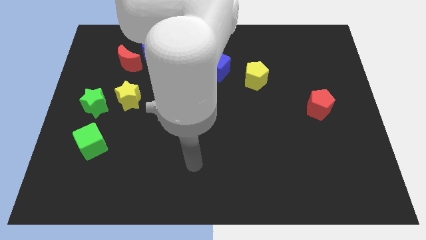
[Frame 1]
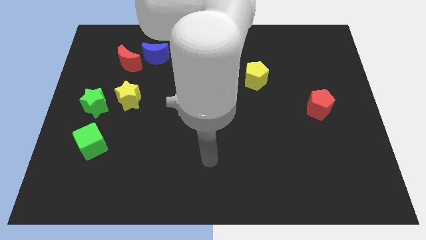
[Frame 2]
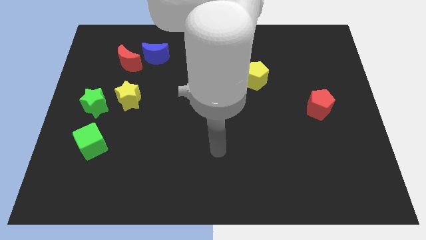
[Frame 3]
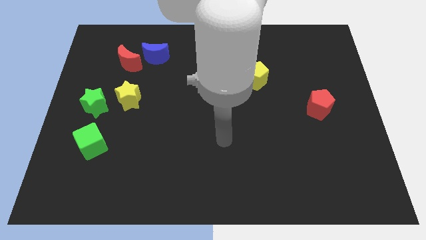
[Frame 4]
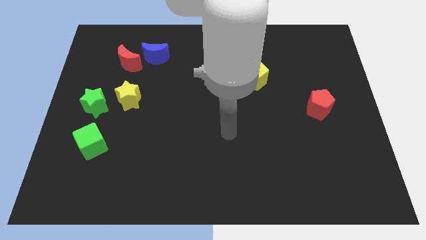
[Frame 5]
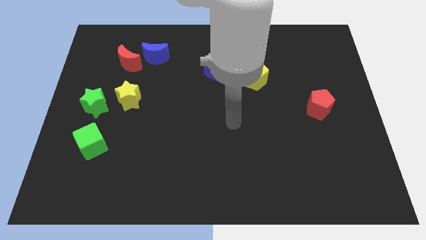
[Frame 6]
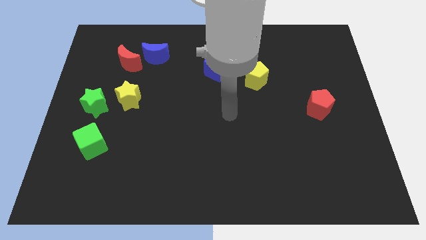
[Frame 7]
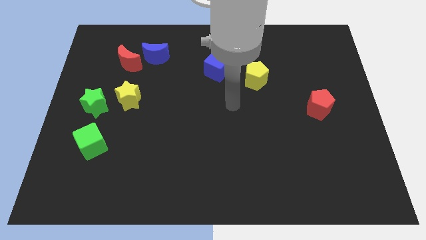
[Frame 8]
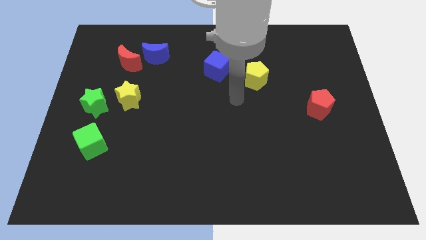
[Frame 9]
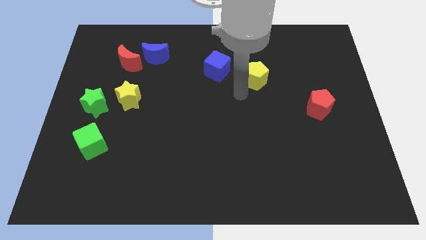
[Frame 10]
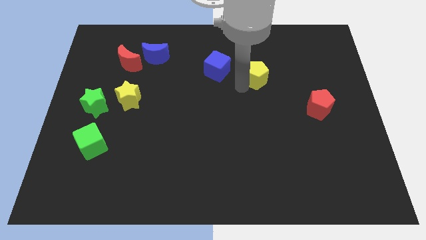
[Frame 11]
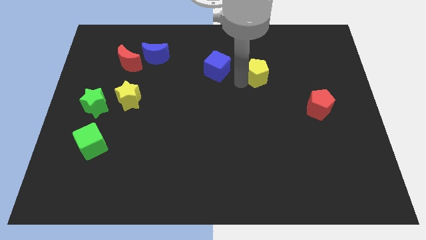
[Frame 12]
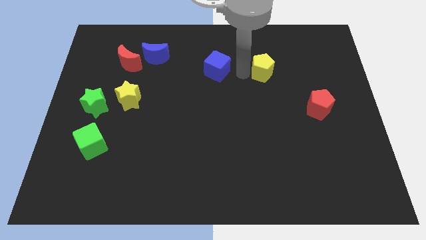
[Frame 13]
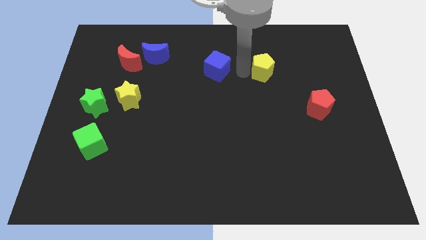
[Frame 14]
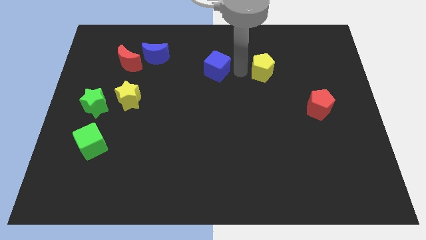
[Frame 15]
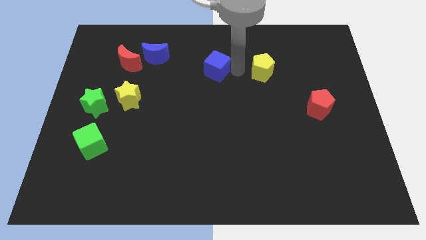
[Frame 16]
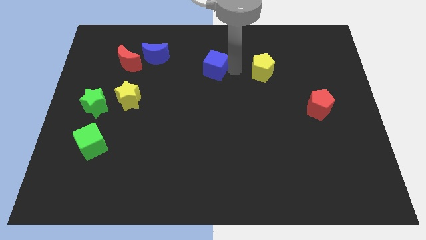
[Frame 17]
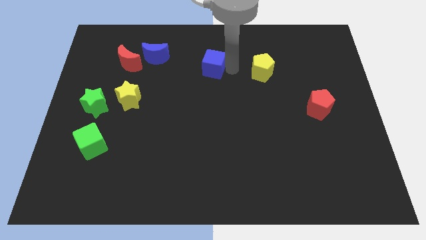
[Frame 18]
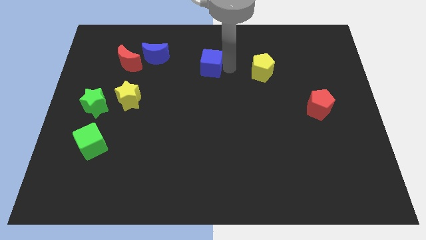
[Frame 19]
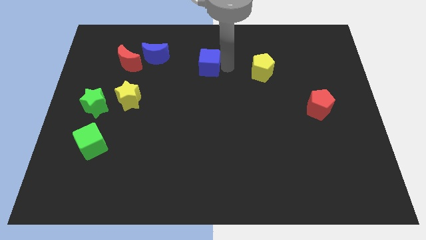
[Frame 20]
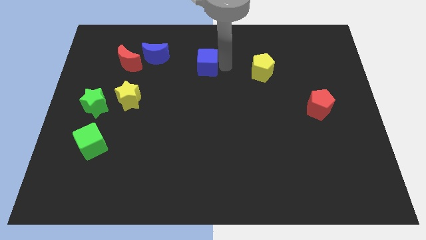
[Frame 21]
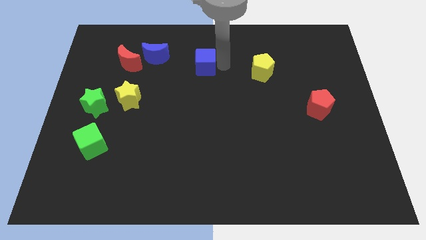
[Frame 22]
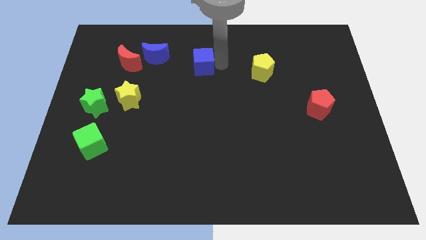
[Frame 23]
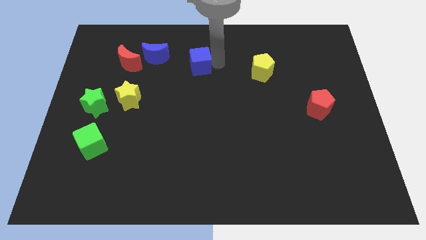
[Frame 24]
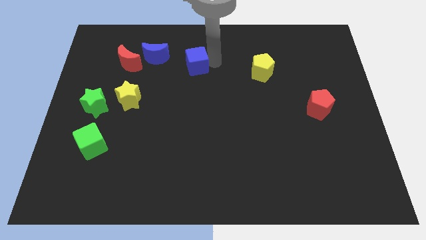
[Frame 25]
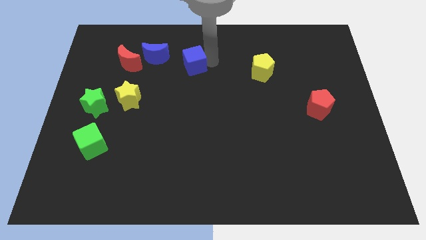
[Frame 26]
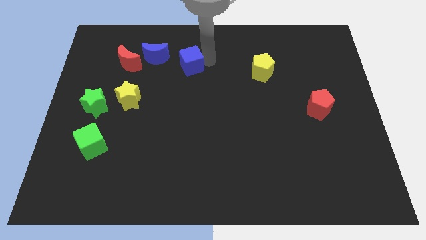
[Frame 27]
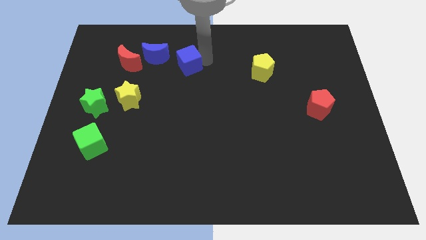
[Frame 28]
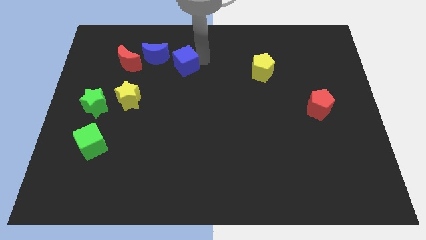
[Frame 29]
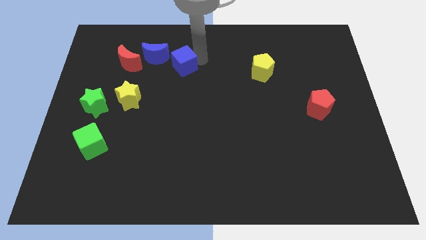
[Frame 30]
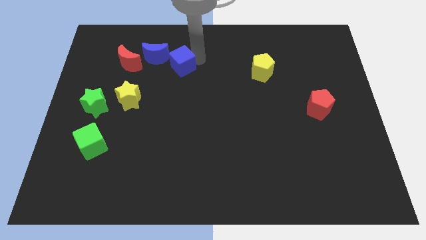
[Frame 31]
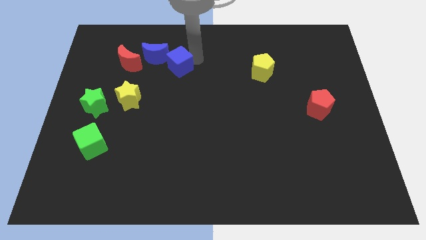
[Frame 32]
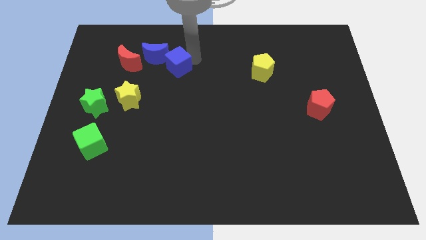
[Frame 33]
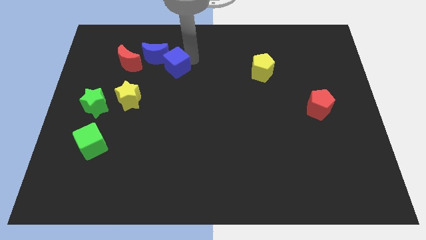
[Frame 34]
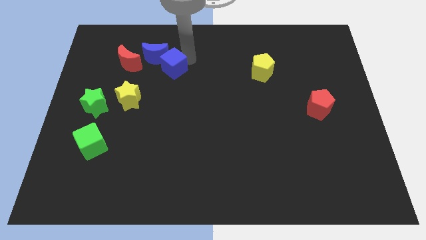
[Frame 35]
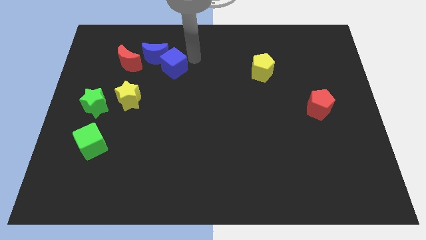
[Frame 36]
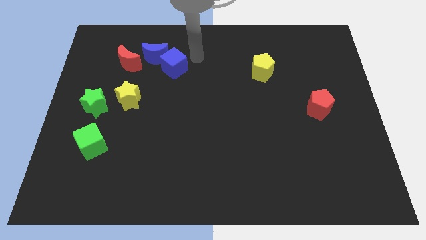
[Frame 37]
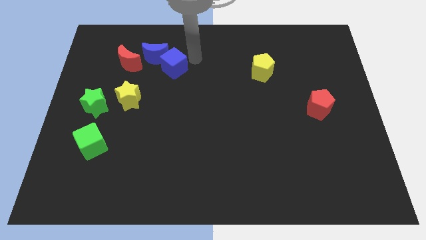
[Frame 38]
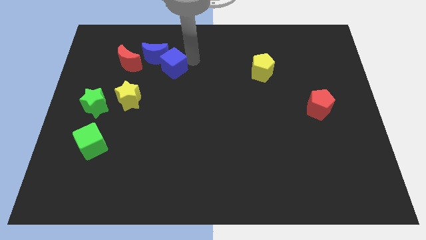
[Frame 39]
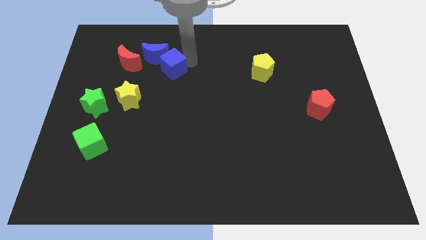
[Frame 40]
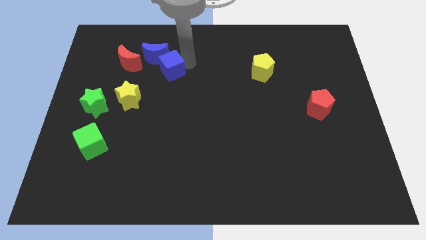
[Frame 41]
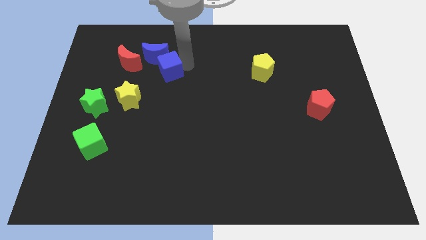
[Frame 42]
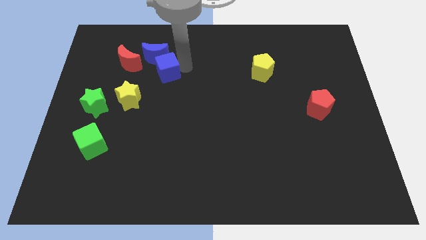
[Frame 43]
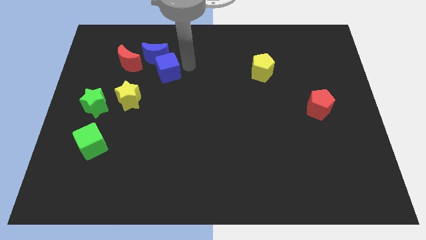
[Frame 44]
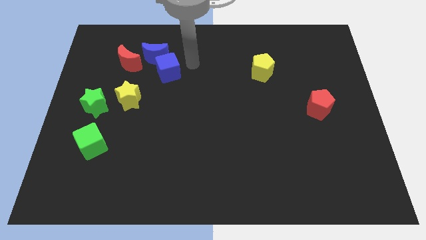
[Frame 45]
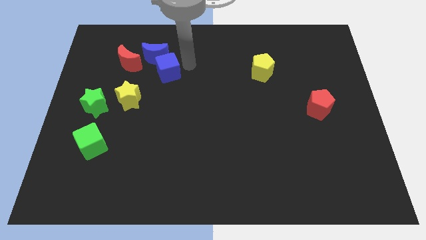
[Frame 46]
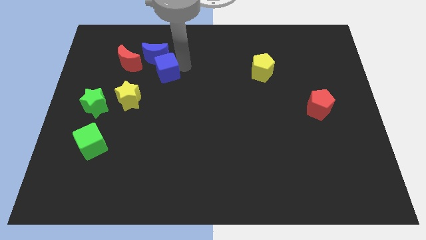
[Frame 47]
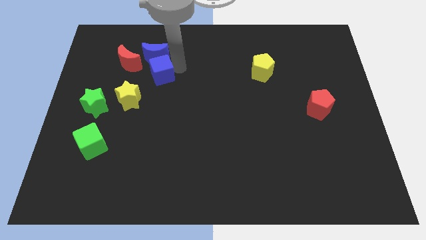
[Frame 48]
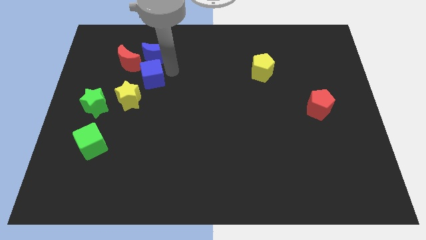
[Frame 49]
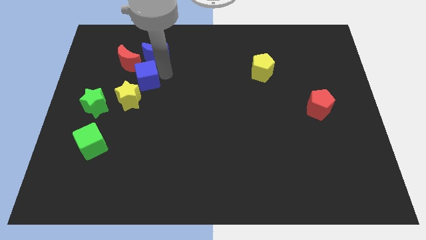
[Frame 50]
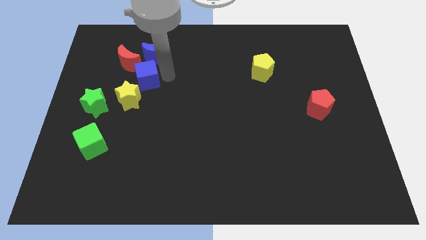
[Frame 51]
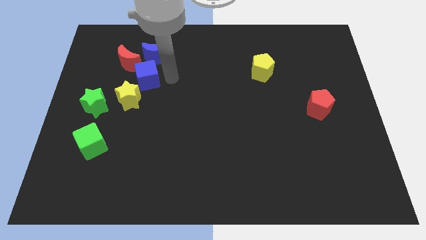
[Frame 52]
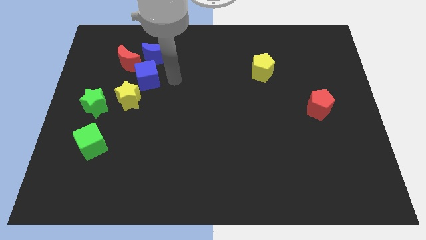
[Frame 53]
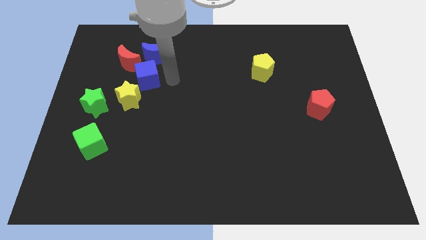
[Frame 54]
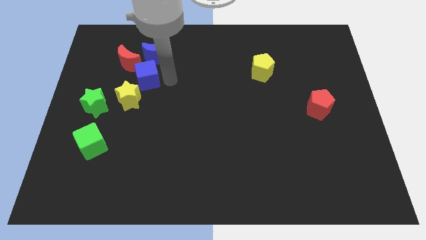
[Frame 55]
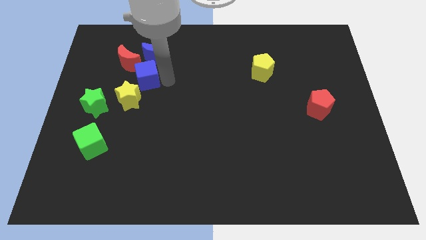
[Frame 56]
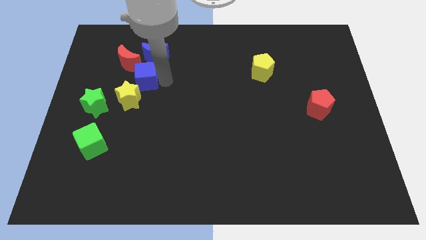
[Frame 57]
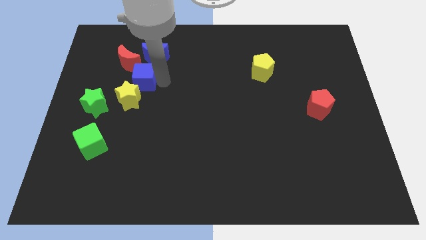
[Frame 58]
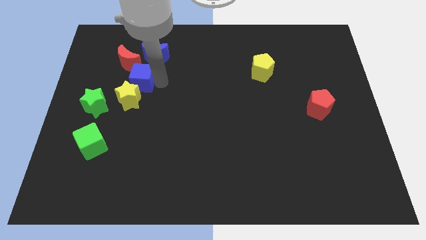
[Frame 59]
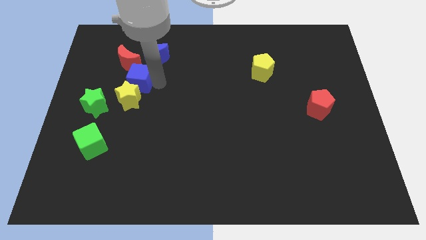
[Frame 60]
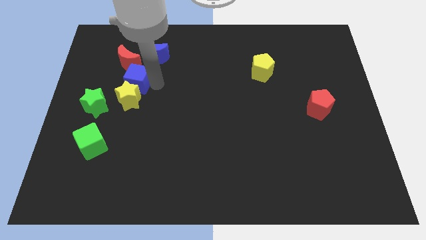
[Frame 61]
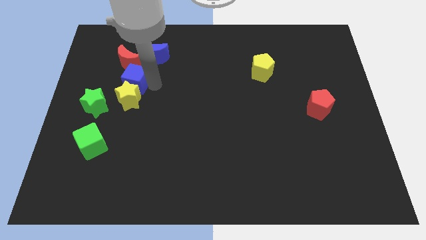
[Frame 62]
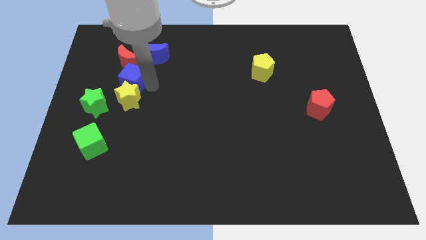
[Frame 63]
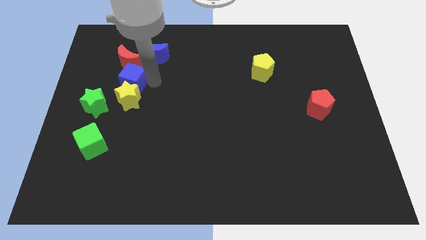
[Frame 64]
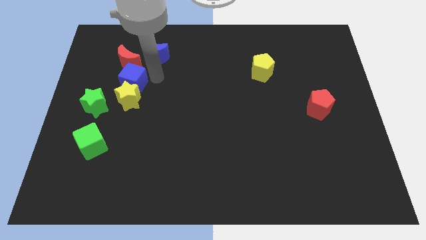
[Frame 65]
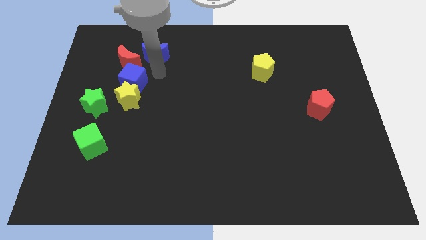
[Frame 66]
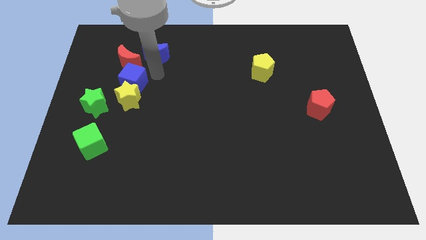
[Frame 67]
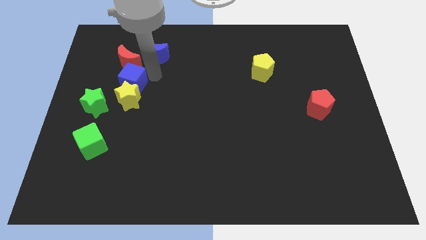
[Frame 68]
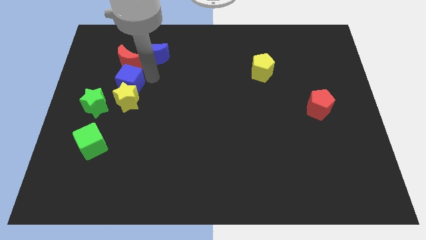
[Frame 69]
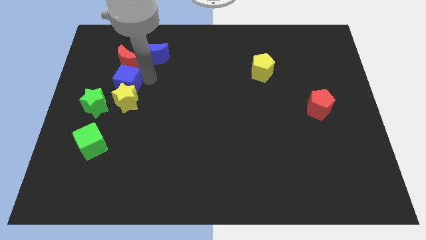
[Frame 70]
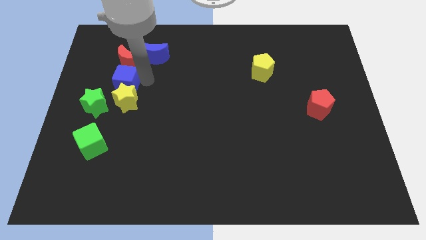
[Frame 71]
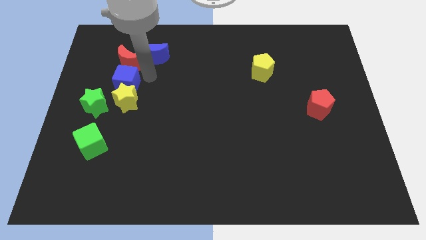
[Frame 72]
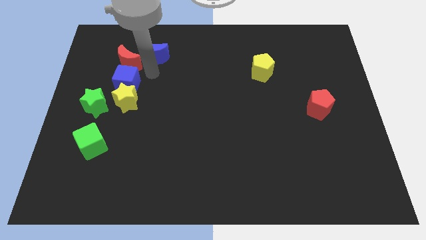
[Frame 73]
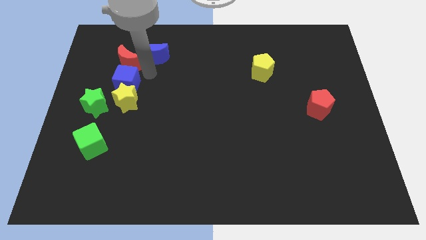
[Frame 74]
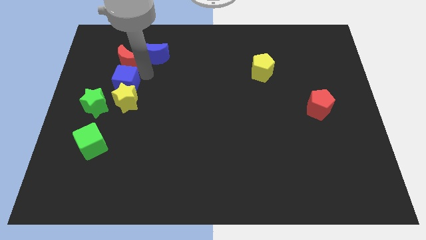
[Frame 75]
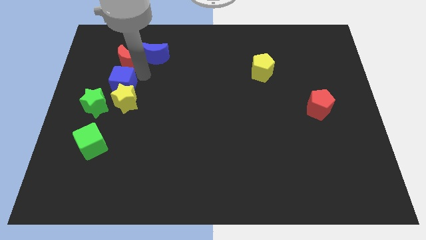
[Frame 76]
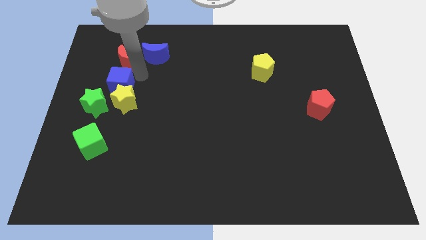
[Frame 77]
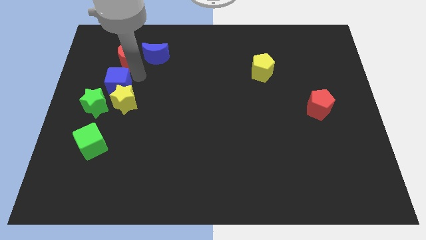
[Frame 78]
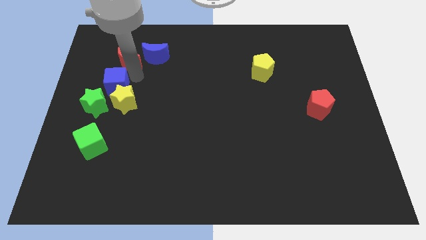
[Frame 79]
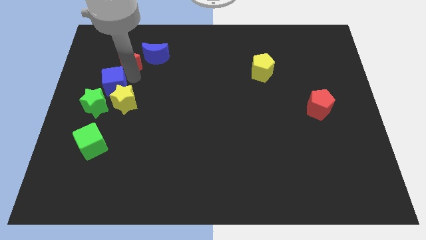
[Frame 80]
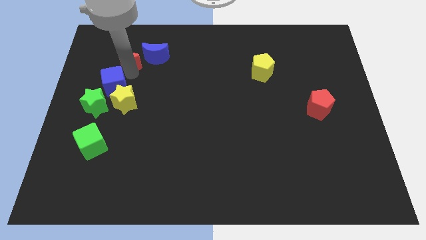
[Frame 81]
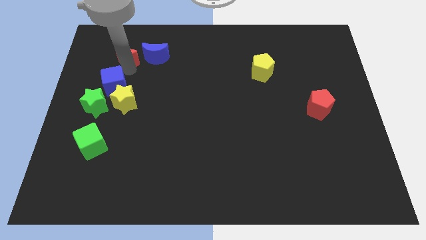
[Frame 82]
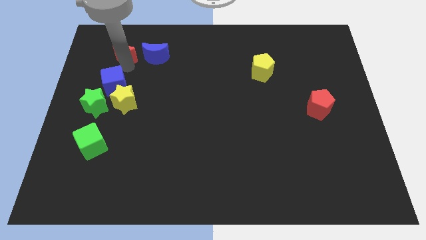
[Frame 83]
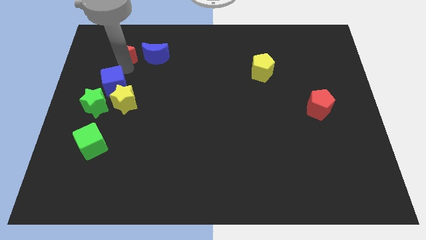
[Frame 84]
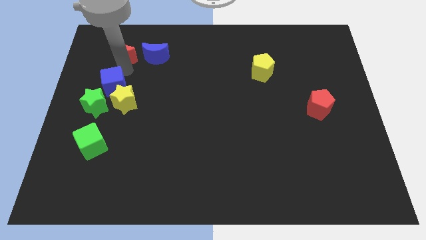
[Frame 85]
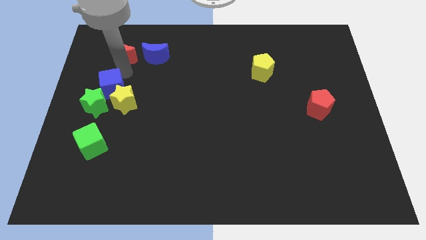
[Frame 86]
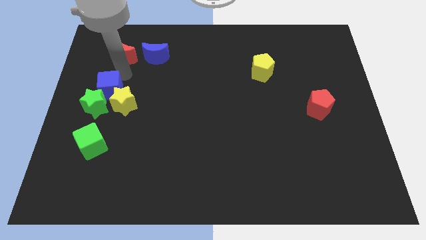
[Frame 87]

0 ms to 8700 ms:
push the blue cube to the top side of the green cube
